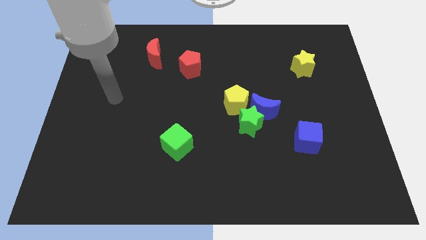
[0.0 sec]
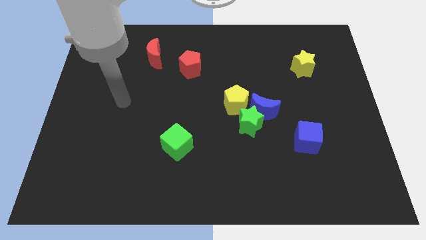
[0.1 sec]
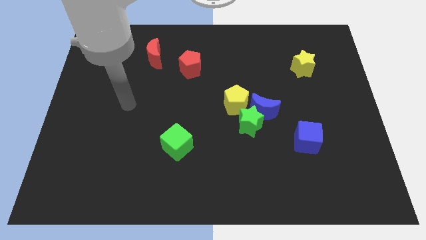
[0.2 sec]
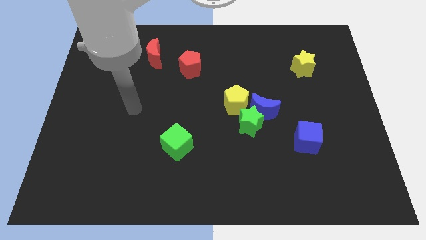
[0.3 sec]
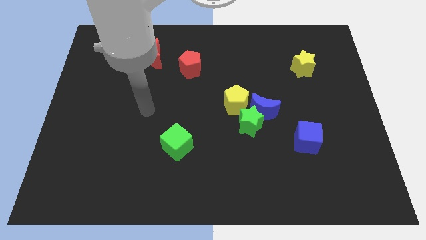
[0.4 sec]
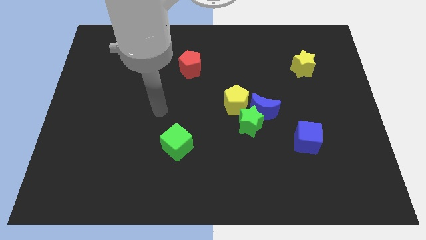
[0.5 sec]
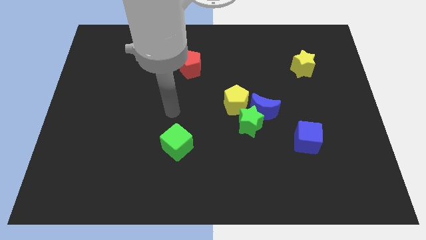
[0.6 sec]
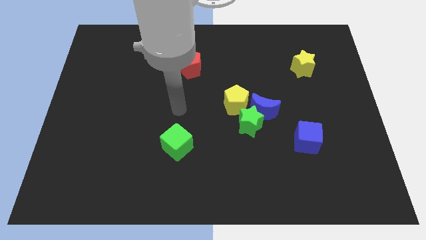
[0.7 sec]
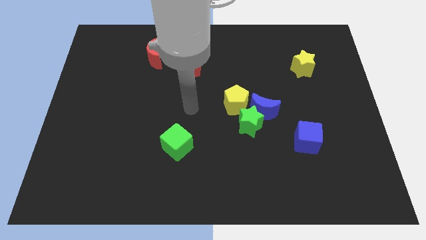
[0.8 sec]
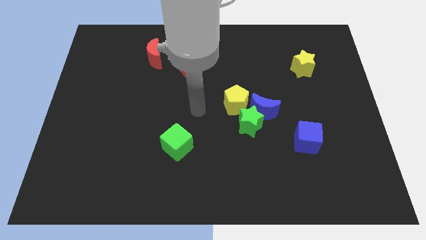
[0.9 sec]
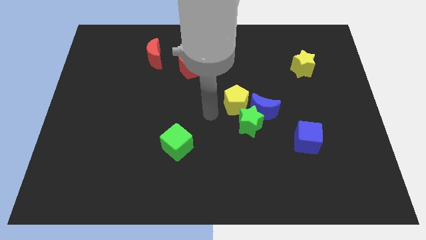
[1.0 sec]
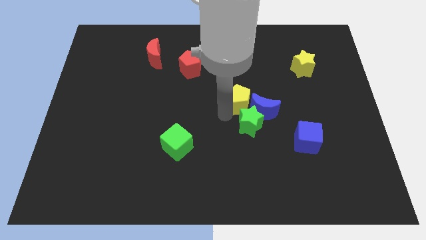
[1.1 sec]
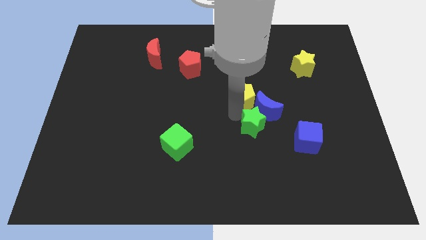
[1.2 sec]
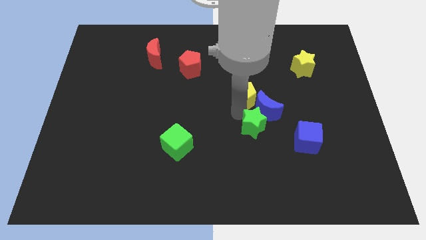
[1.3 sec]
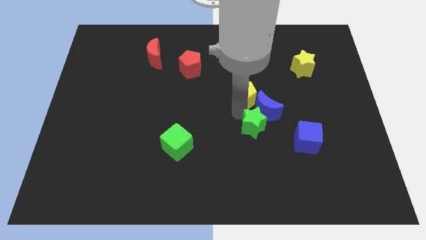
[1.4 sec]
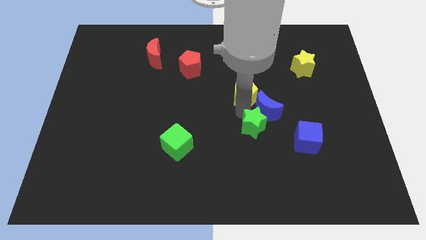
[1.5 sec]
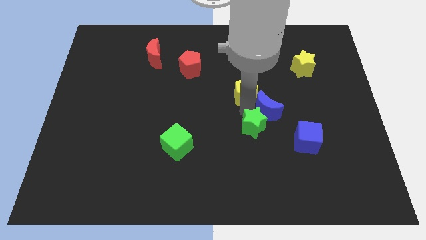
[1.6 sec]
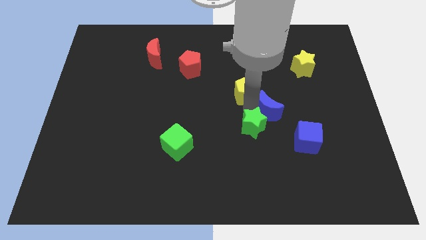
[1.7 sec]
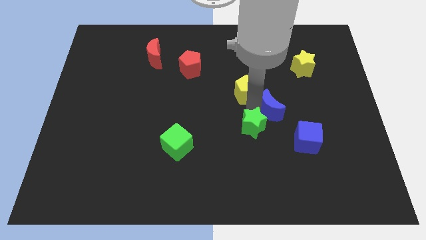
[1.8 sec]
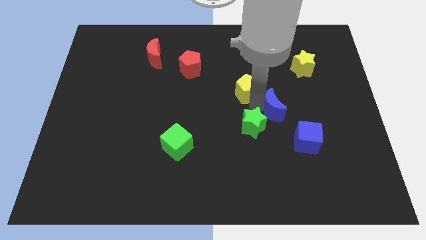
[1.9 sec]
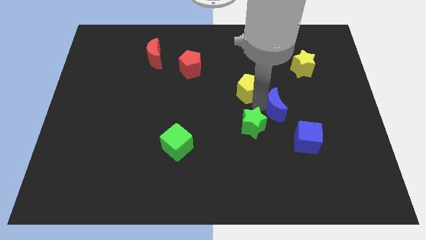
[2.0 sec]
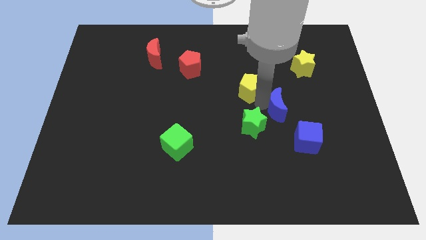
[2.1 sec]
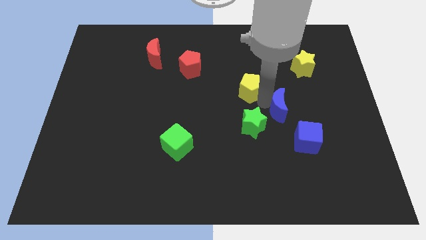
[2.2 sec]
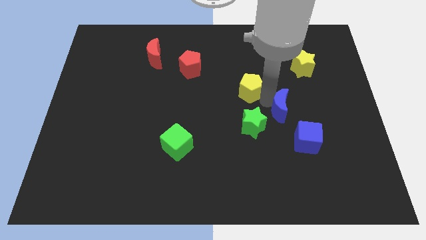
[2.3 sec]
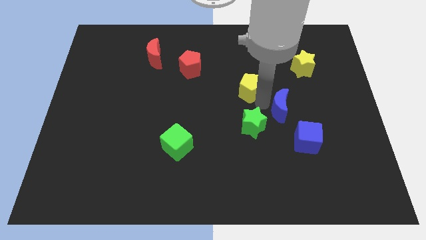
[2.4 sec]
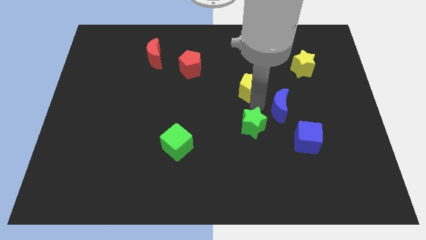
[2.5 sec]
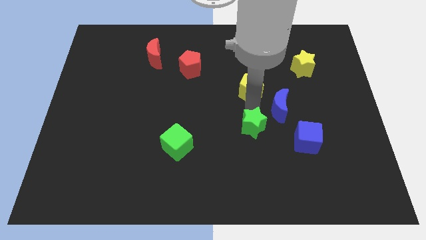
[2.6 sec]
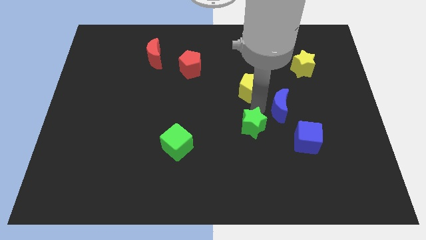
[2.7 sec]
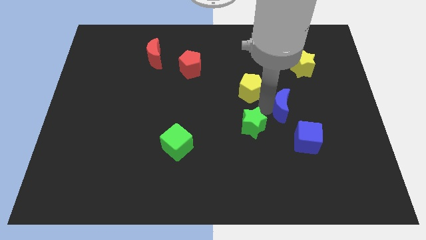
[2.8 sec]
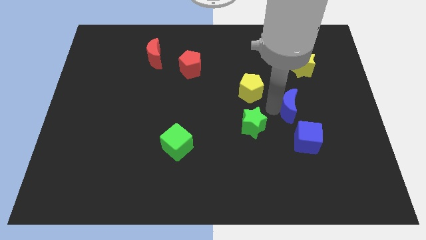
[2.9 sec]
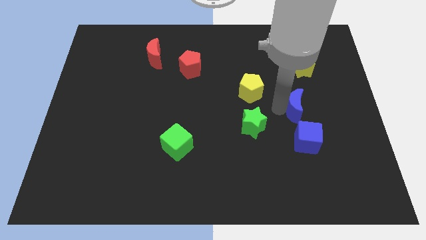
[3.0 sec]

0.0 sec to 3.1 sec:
separate the blue moon from the green star and yellow pentagon

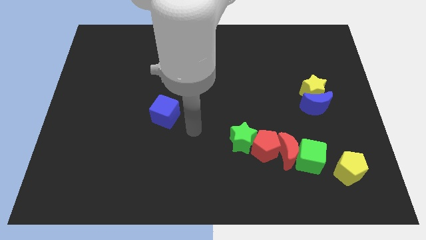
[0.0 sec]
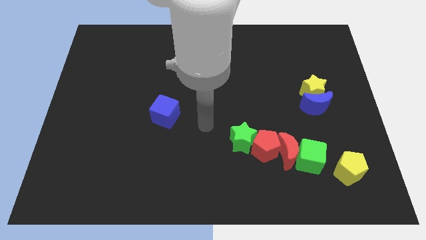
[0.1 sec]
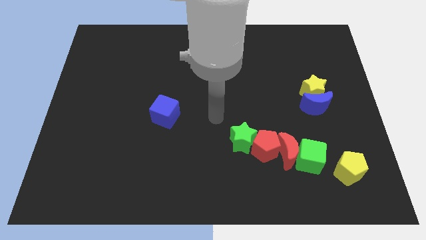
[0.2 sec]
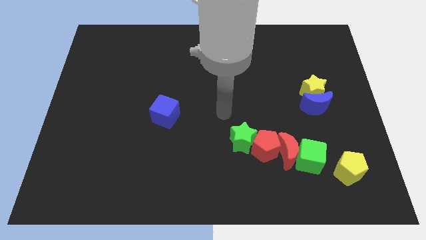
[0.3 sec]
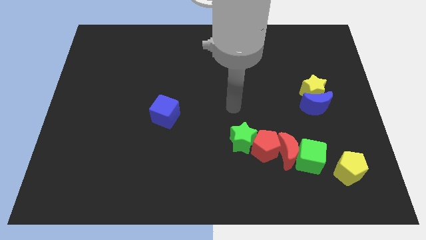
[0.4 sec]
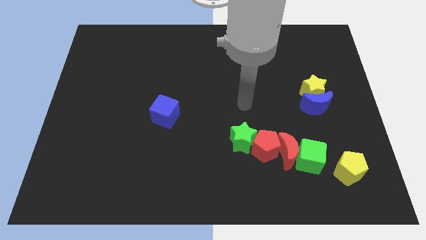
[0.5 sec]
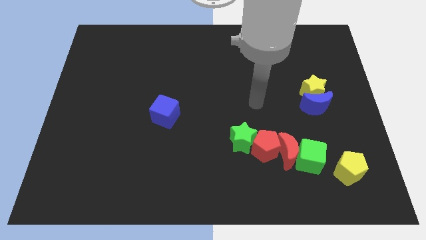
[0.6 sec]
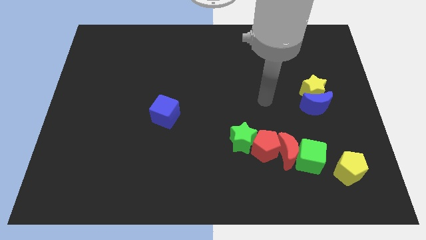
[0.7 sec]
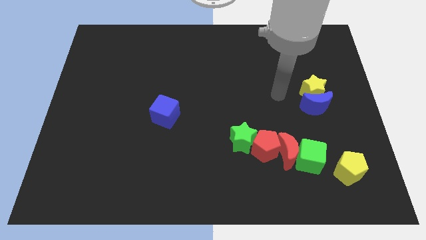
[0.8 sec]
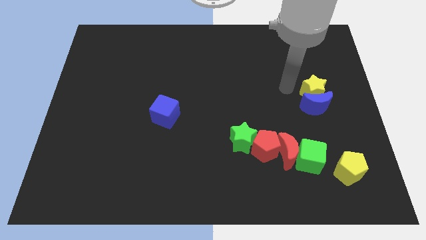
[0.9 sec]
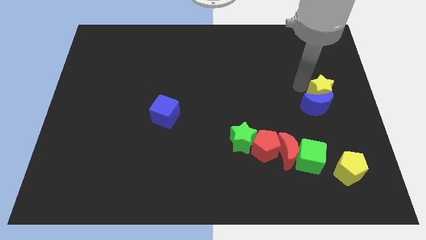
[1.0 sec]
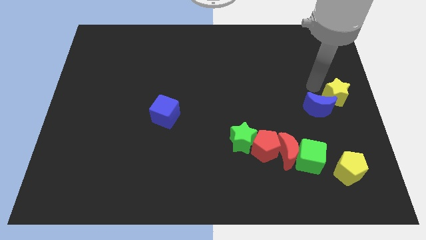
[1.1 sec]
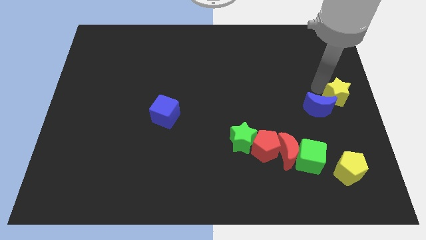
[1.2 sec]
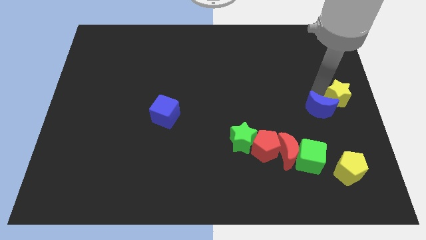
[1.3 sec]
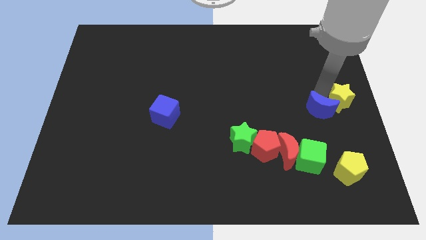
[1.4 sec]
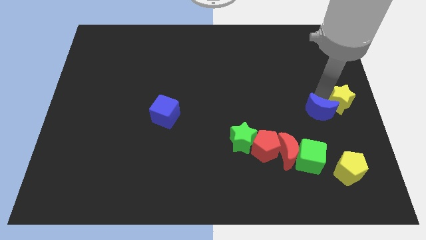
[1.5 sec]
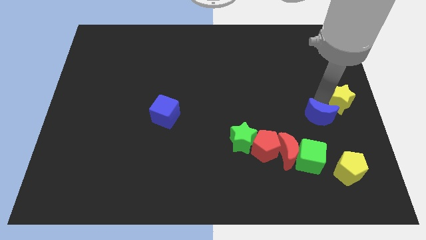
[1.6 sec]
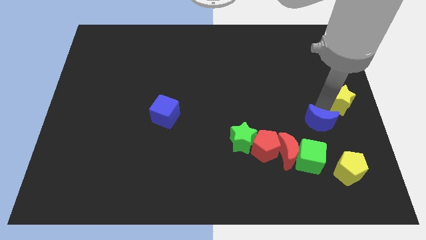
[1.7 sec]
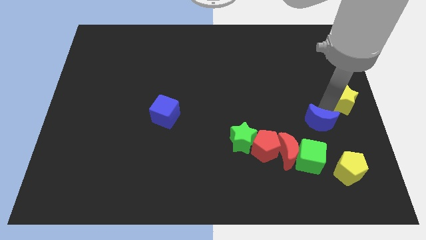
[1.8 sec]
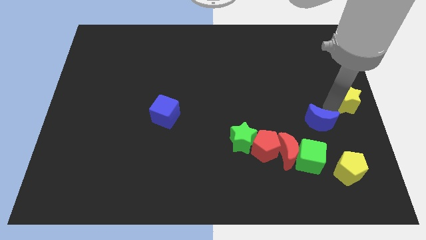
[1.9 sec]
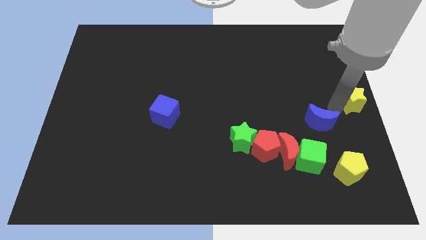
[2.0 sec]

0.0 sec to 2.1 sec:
move the blue moon away from the yellow star

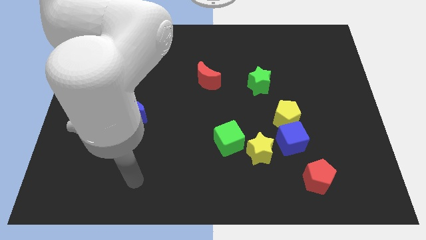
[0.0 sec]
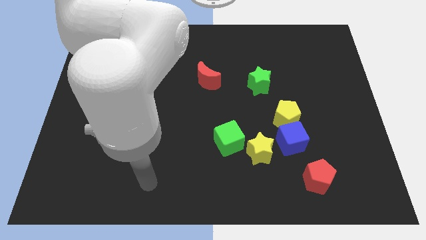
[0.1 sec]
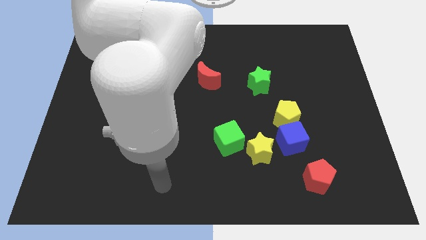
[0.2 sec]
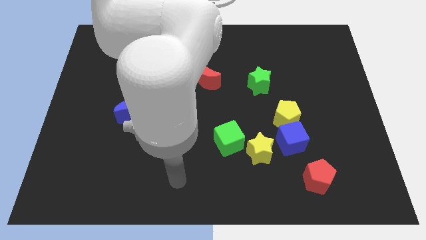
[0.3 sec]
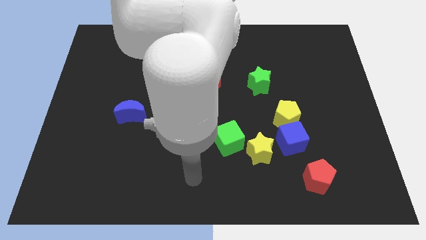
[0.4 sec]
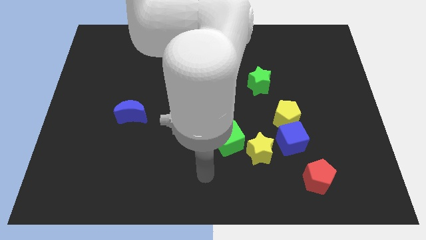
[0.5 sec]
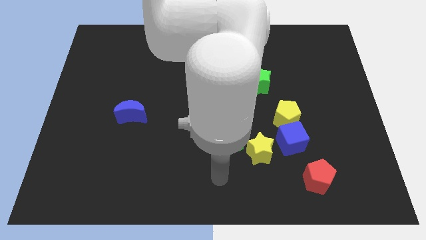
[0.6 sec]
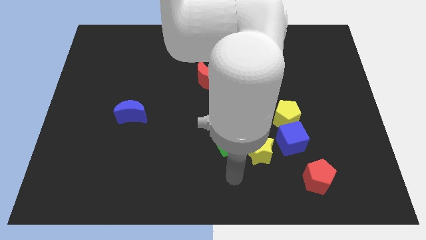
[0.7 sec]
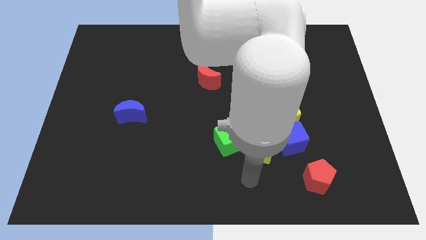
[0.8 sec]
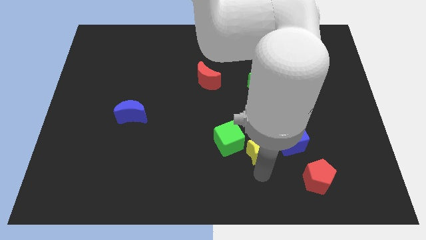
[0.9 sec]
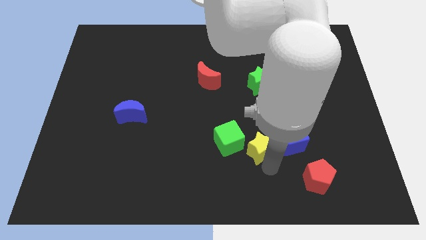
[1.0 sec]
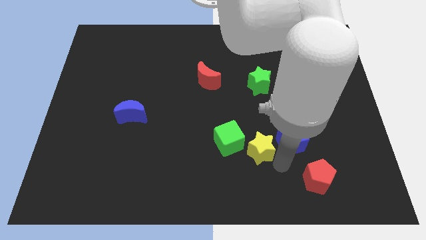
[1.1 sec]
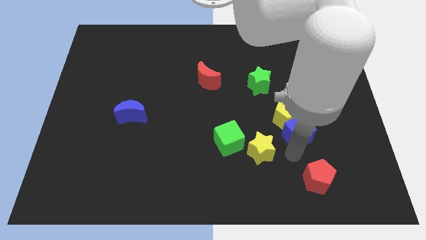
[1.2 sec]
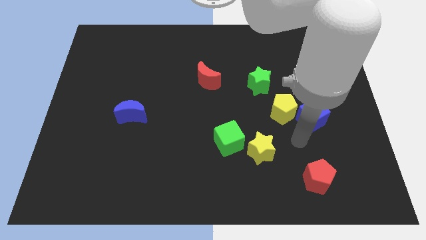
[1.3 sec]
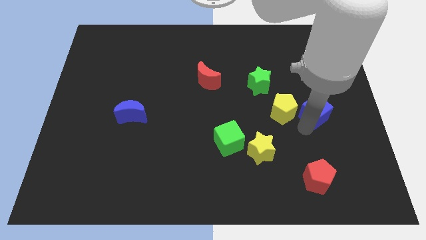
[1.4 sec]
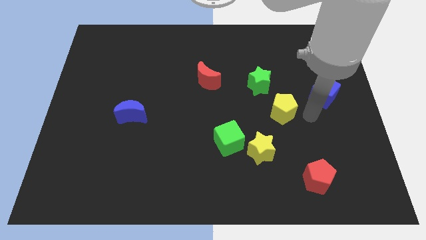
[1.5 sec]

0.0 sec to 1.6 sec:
pull the yellow pentagon apart from the blue cube

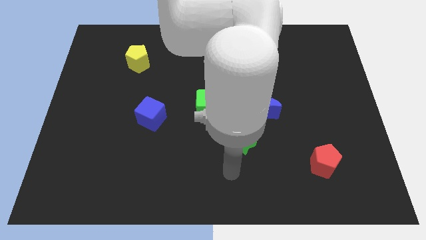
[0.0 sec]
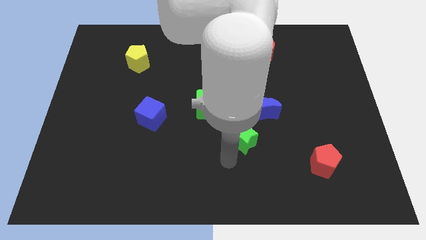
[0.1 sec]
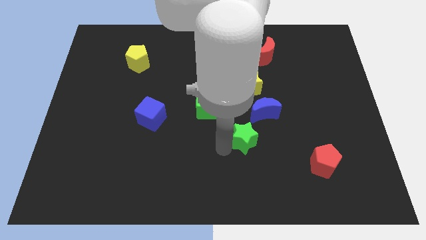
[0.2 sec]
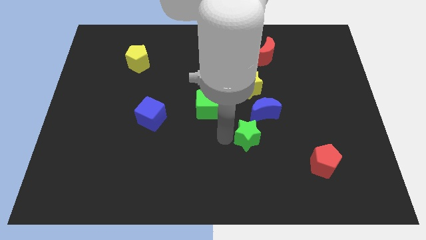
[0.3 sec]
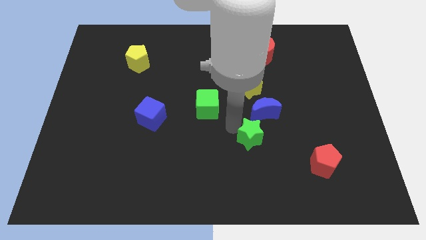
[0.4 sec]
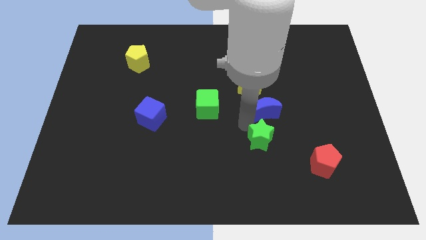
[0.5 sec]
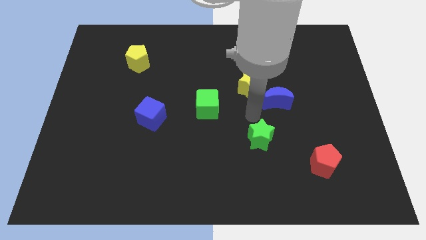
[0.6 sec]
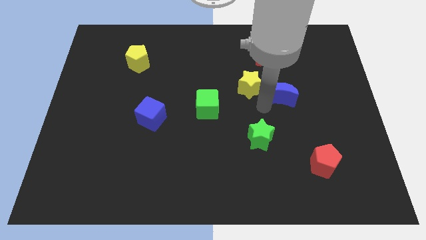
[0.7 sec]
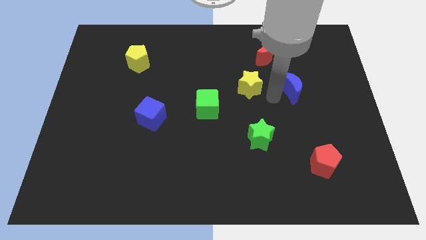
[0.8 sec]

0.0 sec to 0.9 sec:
separate the yellow star from the blue moon

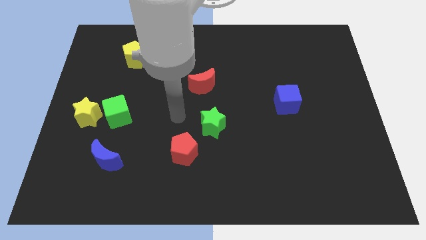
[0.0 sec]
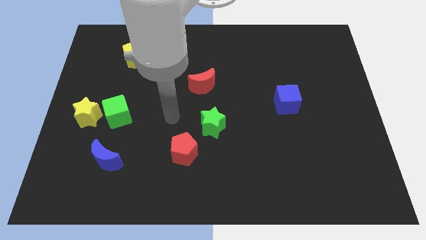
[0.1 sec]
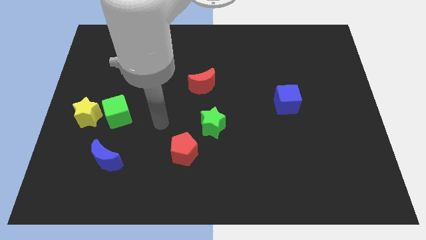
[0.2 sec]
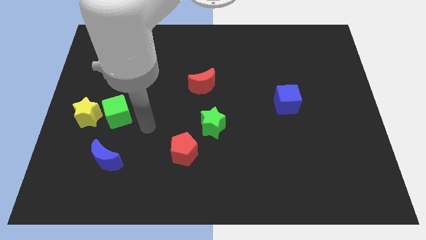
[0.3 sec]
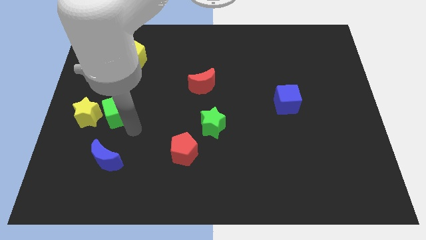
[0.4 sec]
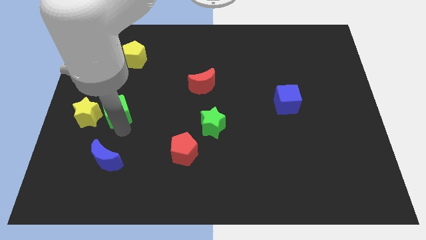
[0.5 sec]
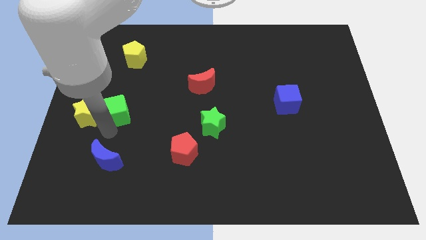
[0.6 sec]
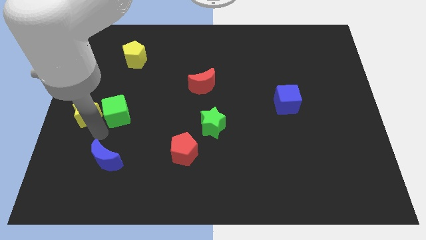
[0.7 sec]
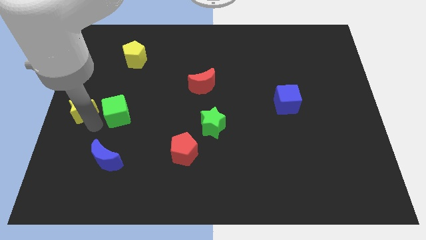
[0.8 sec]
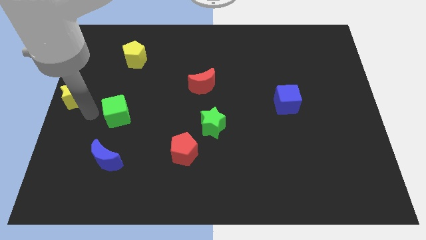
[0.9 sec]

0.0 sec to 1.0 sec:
separate the green cube from the yellow star

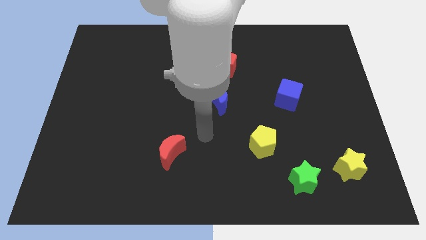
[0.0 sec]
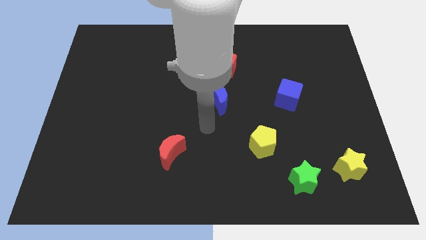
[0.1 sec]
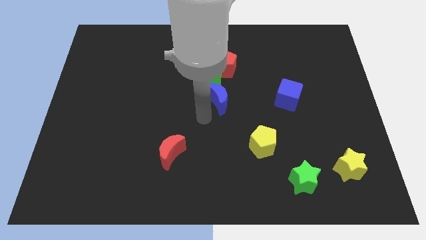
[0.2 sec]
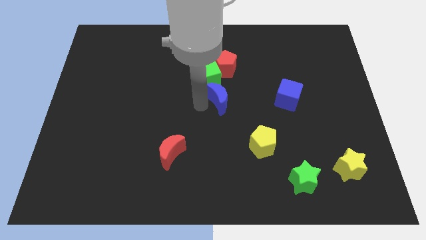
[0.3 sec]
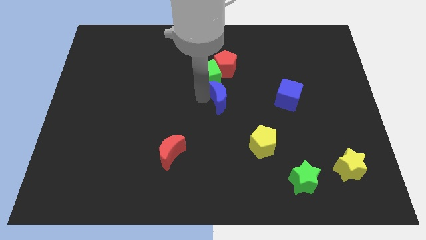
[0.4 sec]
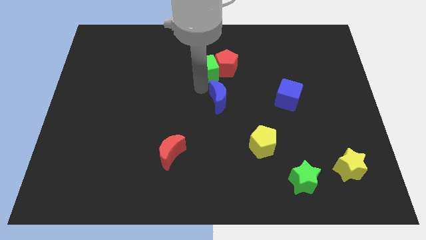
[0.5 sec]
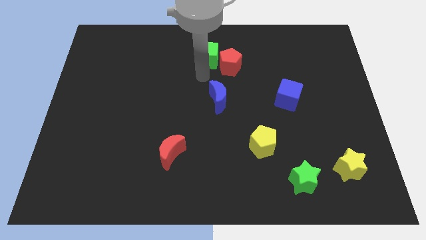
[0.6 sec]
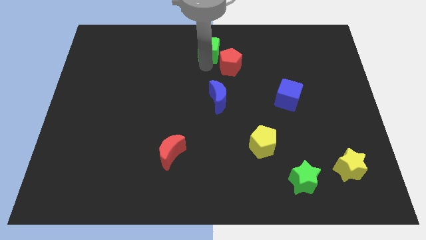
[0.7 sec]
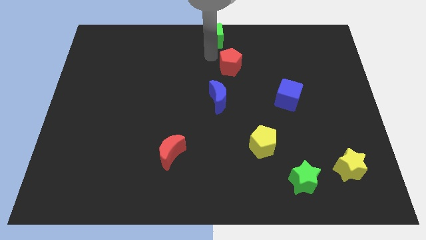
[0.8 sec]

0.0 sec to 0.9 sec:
separate the red pentagon from the green cube
